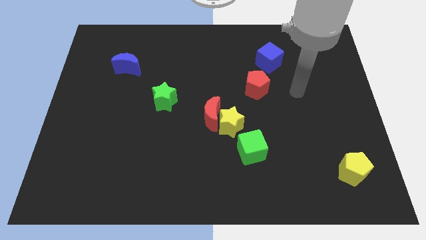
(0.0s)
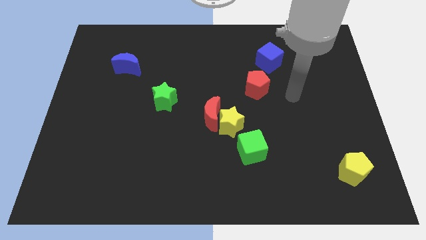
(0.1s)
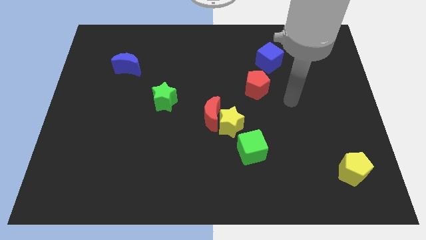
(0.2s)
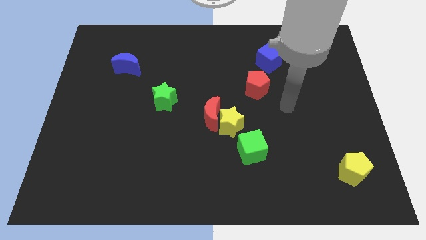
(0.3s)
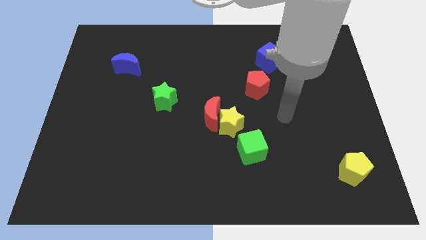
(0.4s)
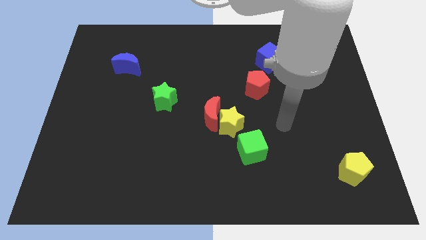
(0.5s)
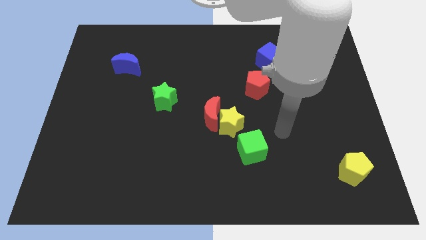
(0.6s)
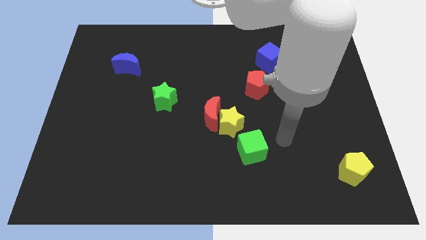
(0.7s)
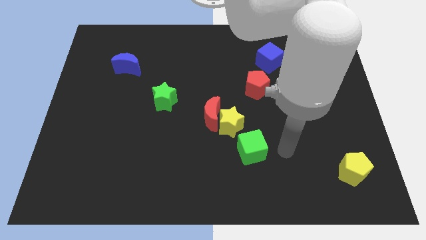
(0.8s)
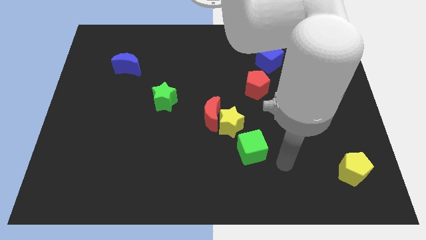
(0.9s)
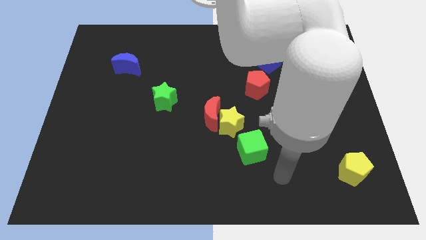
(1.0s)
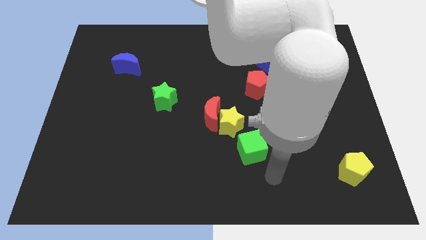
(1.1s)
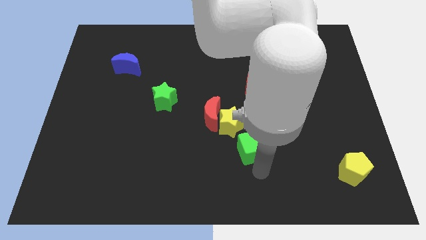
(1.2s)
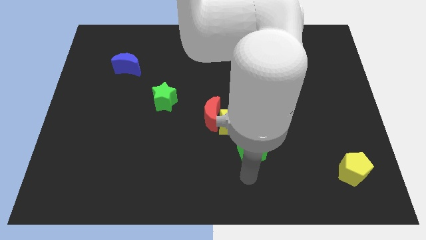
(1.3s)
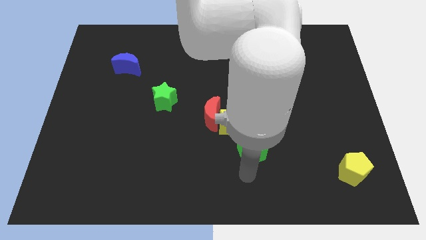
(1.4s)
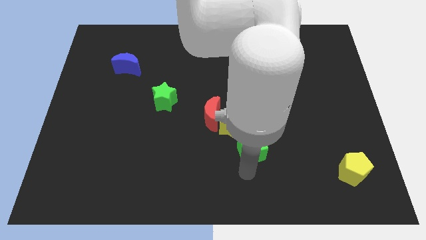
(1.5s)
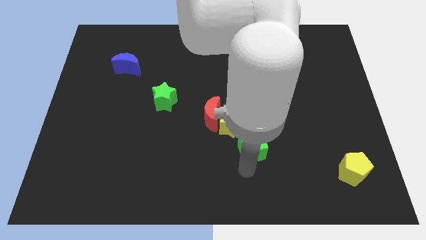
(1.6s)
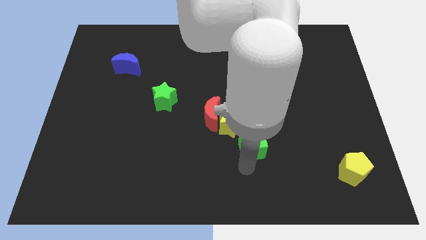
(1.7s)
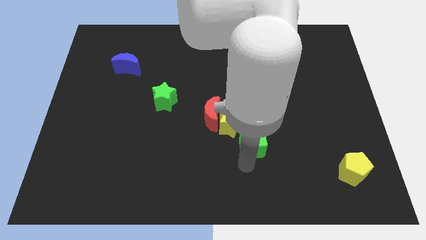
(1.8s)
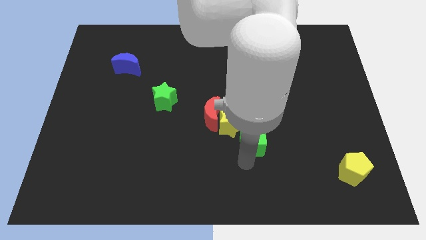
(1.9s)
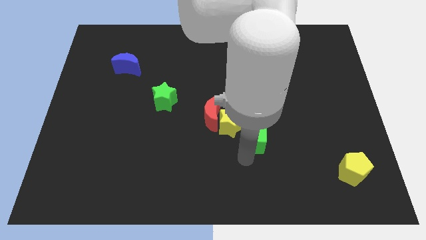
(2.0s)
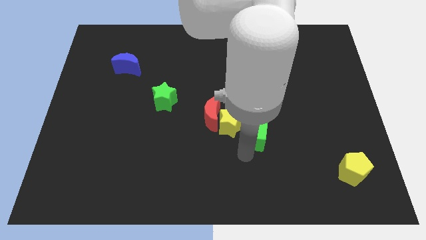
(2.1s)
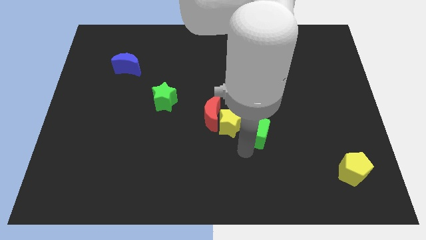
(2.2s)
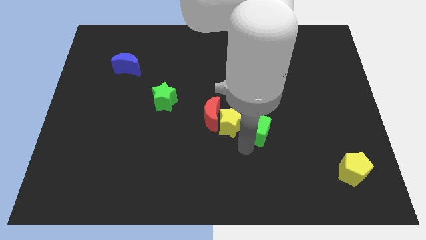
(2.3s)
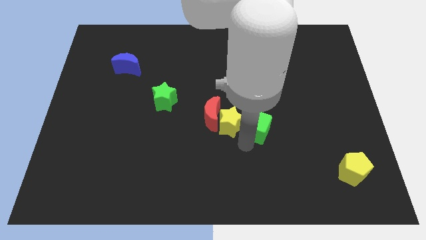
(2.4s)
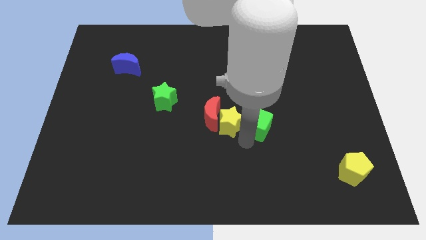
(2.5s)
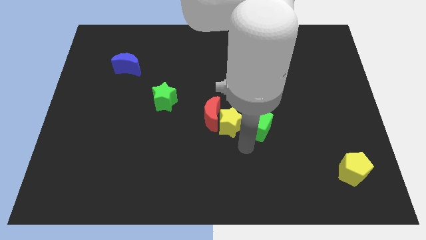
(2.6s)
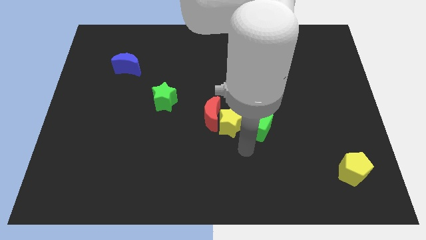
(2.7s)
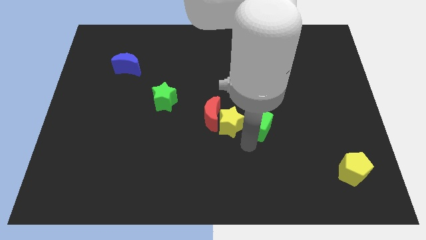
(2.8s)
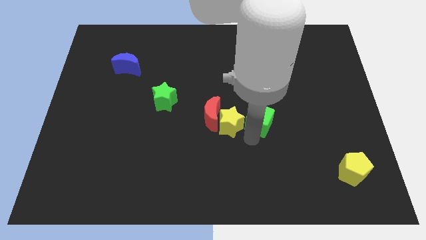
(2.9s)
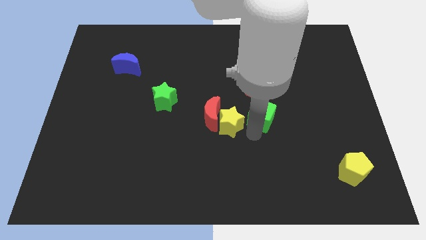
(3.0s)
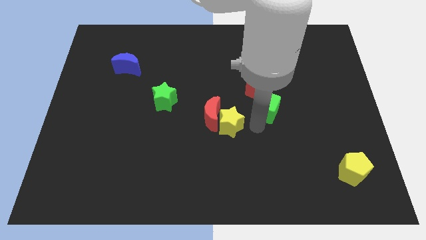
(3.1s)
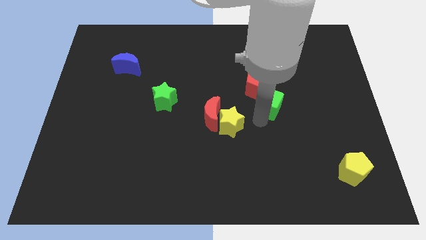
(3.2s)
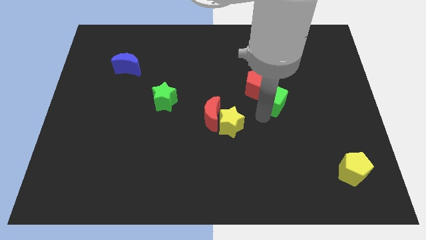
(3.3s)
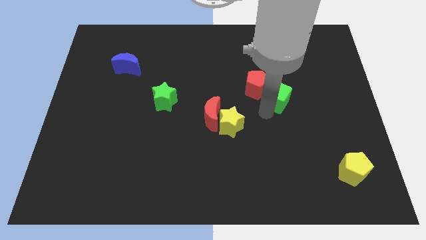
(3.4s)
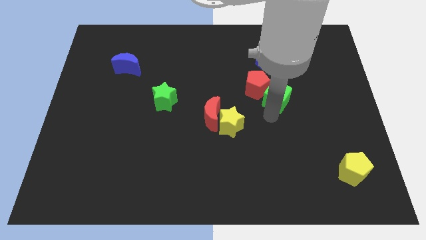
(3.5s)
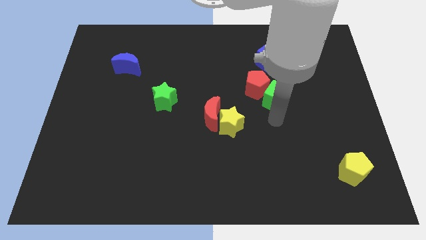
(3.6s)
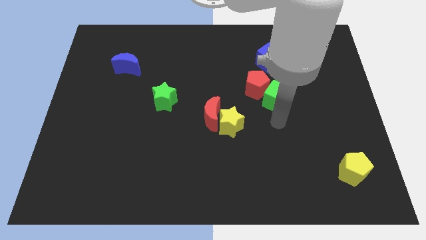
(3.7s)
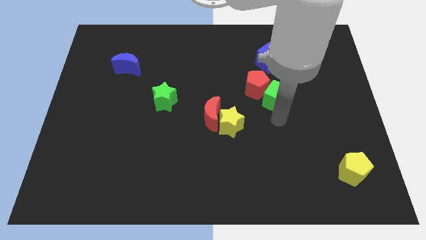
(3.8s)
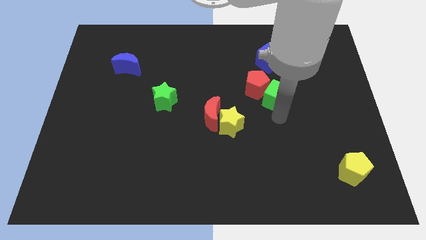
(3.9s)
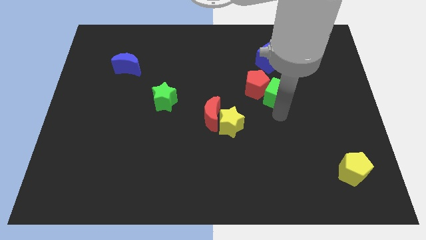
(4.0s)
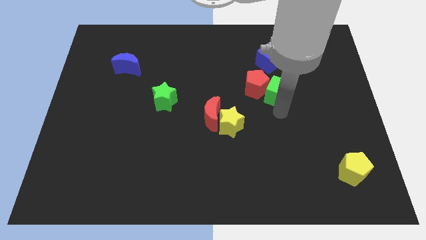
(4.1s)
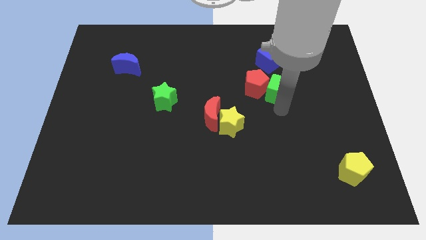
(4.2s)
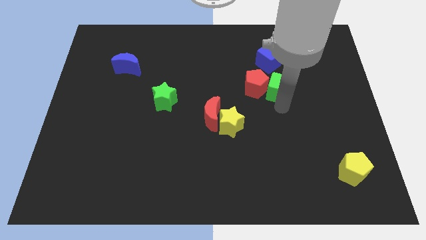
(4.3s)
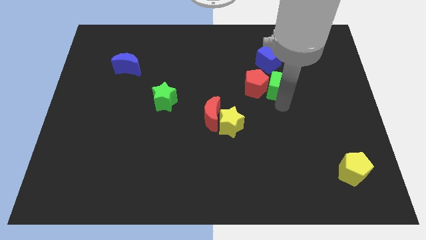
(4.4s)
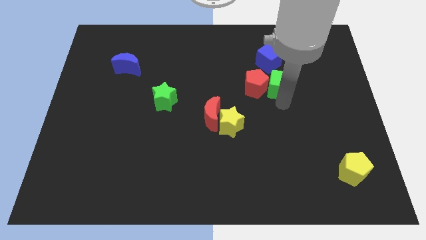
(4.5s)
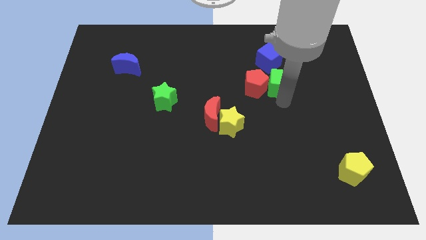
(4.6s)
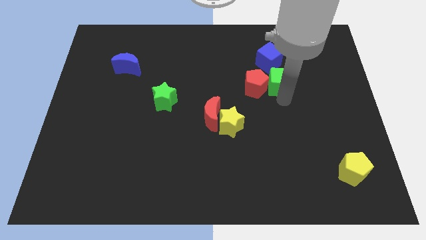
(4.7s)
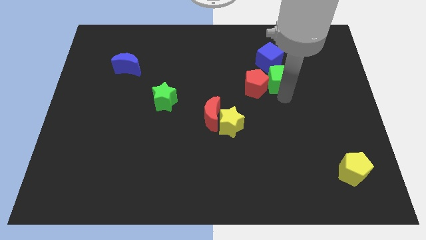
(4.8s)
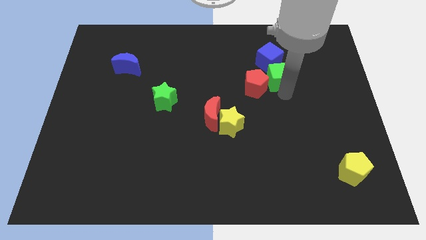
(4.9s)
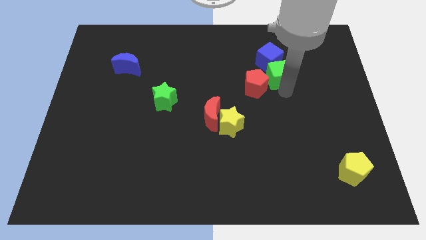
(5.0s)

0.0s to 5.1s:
slide the green cube next to the blue cube

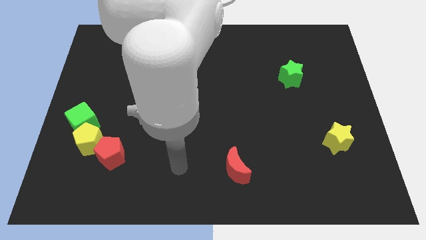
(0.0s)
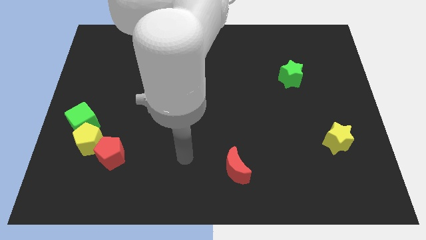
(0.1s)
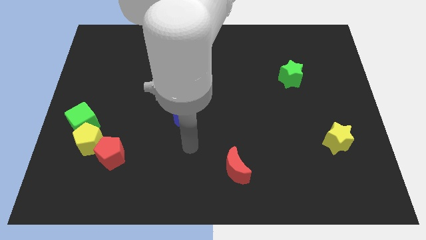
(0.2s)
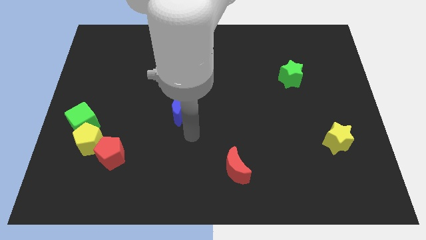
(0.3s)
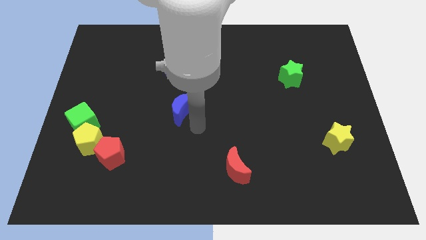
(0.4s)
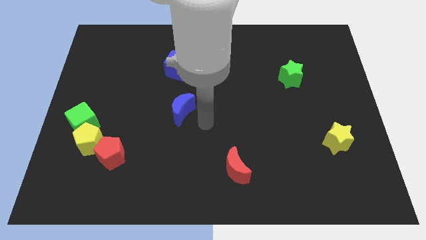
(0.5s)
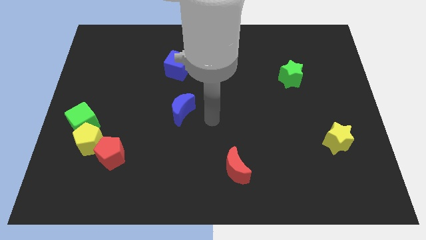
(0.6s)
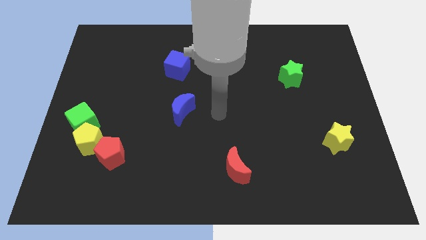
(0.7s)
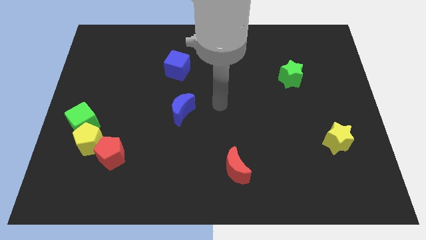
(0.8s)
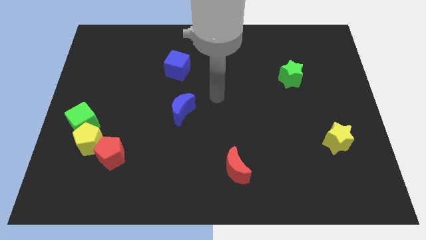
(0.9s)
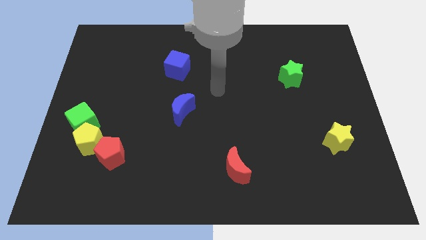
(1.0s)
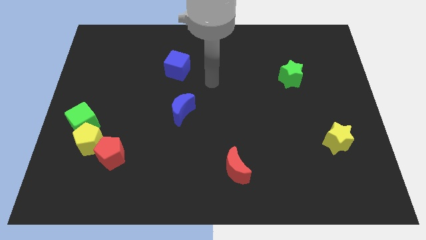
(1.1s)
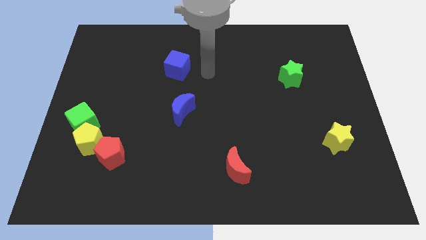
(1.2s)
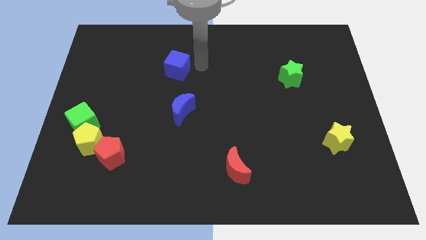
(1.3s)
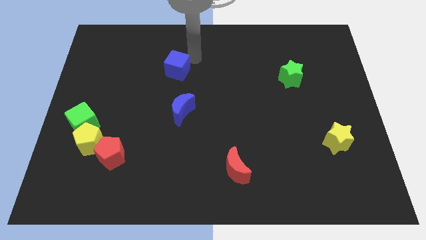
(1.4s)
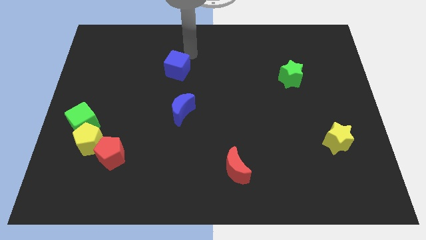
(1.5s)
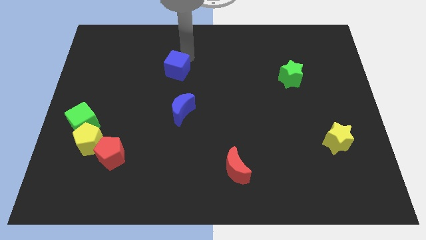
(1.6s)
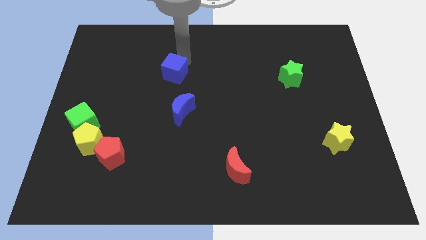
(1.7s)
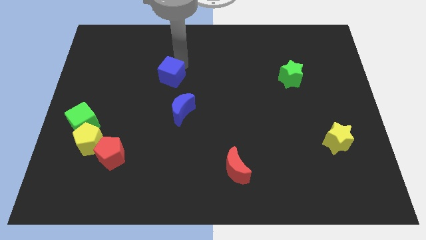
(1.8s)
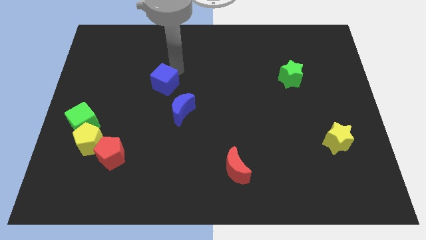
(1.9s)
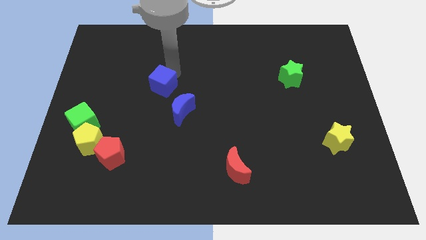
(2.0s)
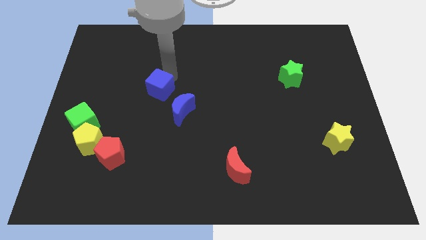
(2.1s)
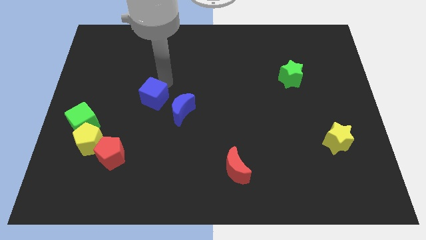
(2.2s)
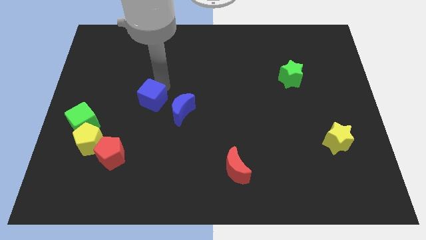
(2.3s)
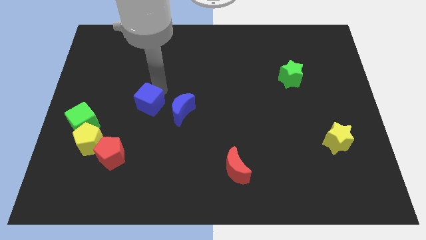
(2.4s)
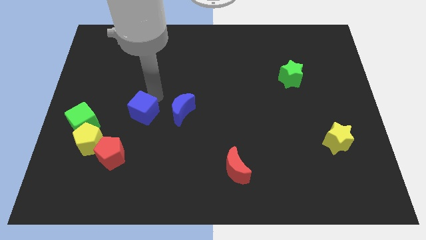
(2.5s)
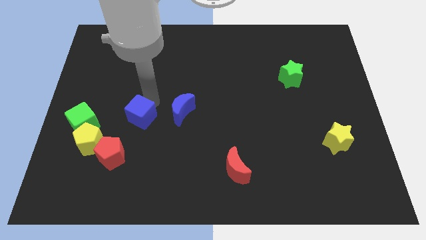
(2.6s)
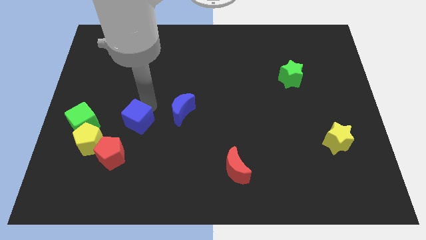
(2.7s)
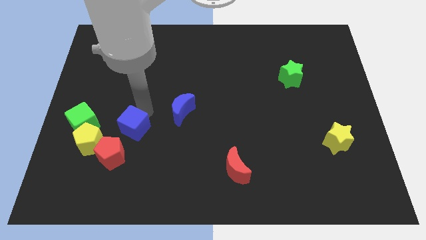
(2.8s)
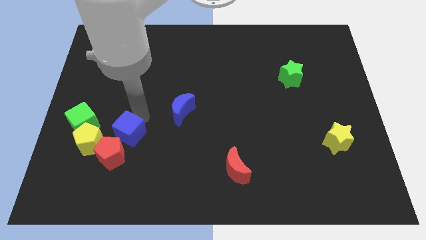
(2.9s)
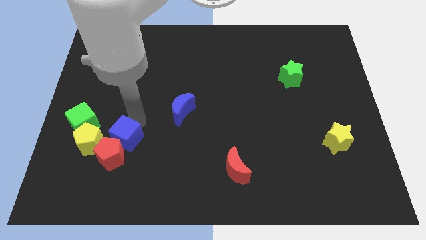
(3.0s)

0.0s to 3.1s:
slide the blue cube towards the red pentagon
